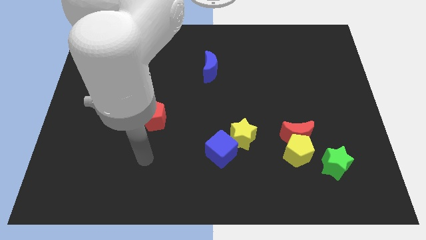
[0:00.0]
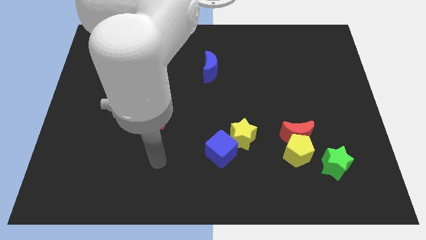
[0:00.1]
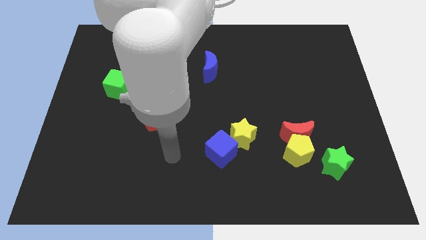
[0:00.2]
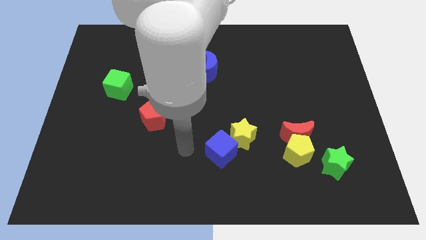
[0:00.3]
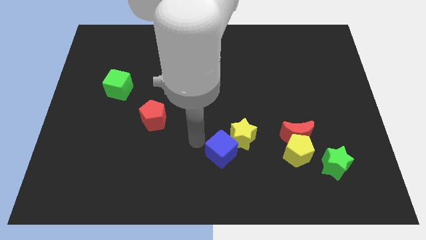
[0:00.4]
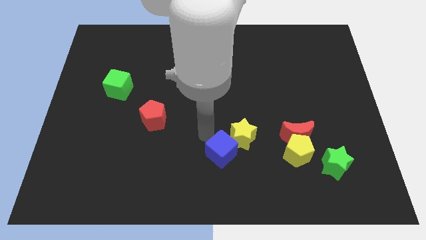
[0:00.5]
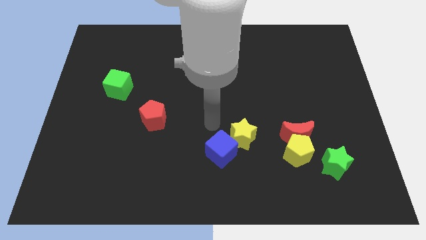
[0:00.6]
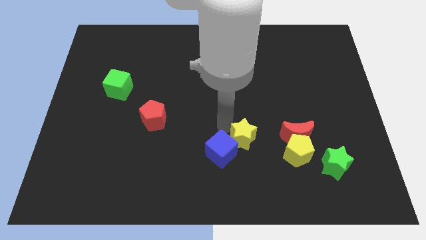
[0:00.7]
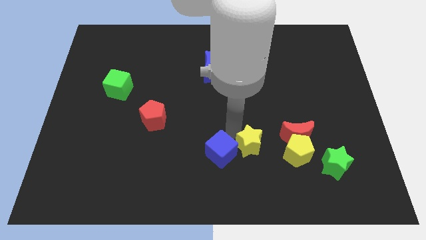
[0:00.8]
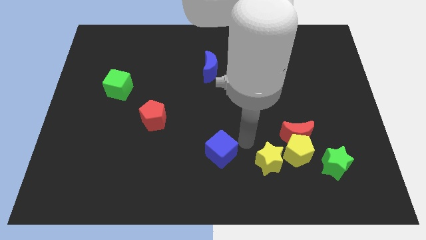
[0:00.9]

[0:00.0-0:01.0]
separate the blue cube from the yellow star

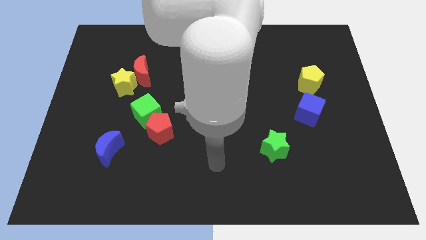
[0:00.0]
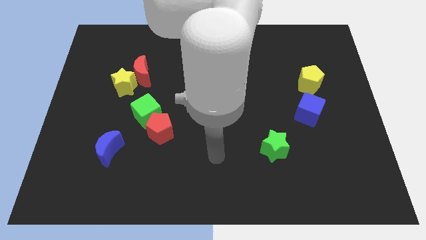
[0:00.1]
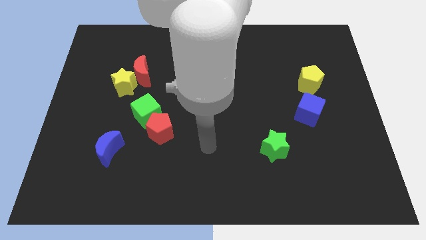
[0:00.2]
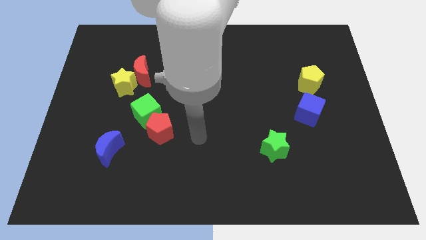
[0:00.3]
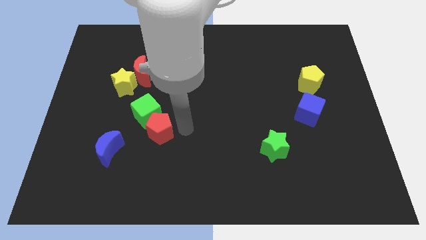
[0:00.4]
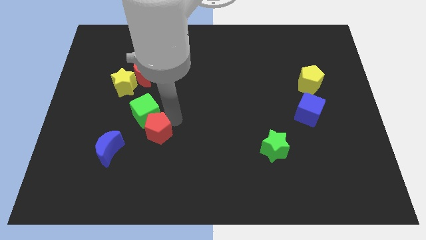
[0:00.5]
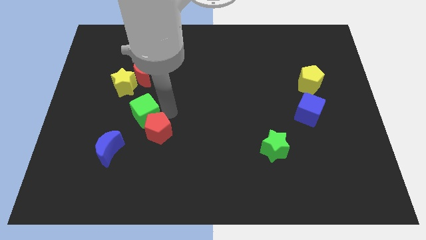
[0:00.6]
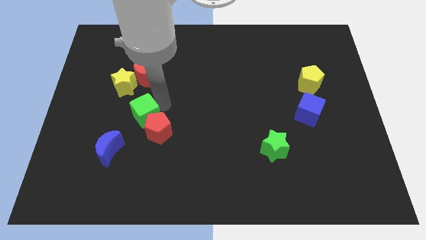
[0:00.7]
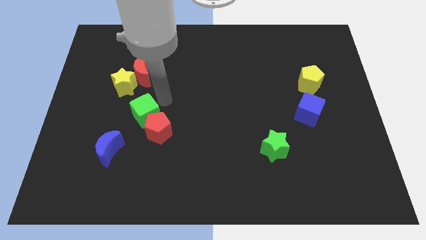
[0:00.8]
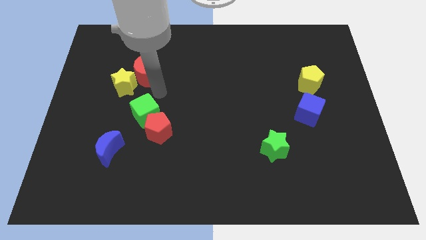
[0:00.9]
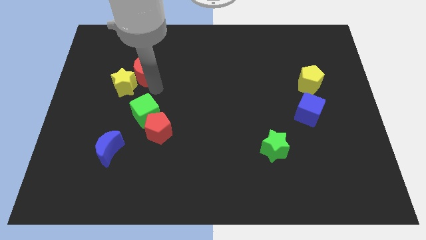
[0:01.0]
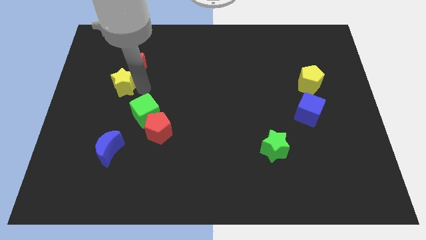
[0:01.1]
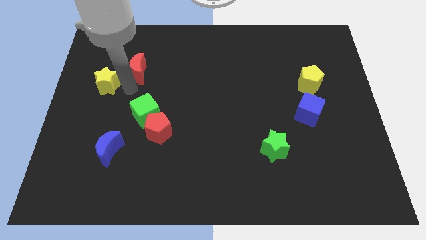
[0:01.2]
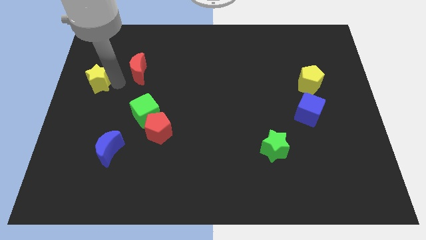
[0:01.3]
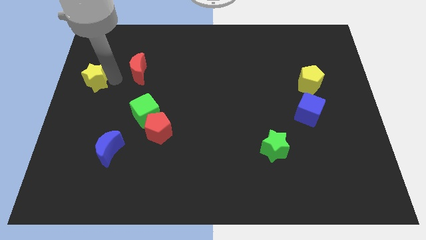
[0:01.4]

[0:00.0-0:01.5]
separate the red moon from the yellow star

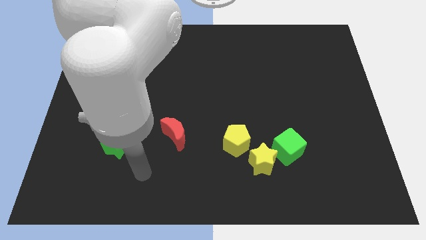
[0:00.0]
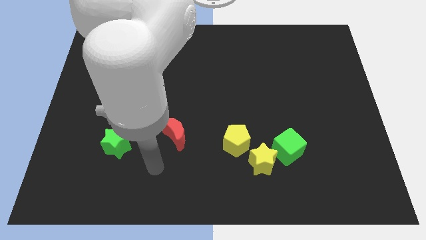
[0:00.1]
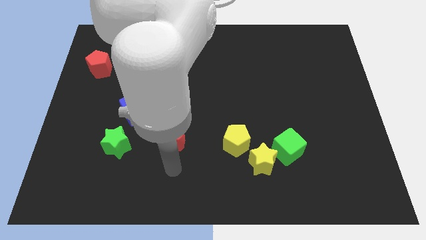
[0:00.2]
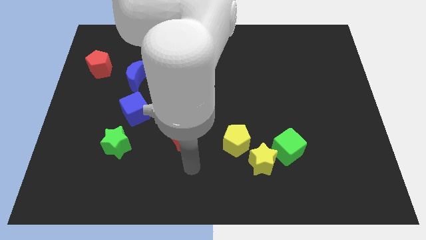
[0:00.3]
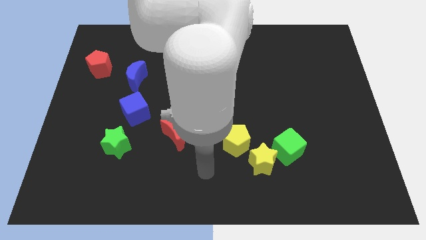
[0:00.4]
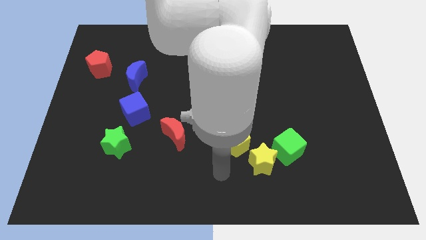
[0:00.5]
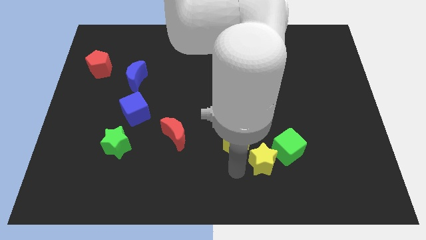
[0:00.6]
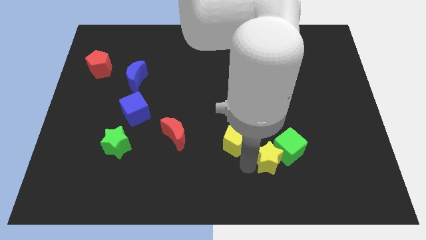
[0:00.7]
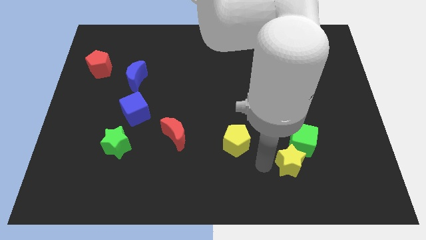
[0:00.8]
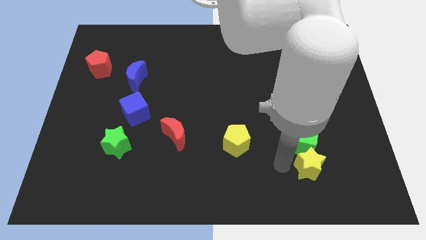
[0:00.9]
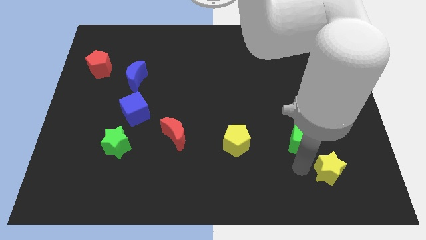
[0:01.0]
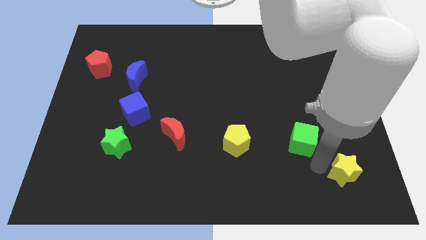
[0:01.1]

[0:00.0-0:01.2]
separate the green cube from the yellow star

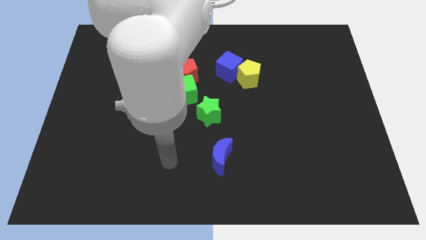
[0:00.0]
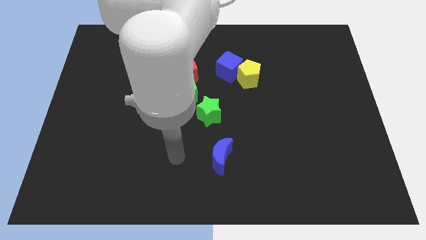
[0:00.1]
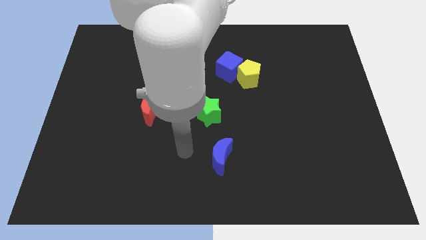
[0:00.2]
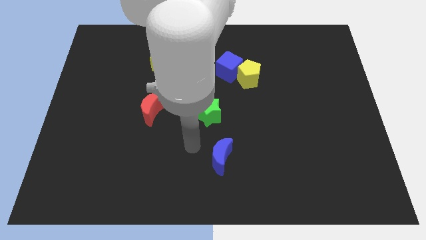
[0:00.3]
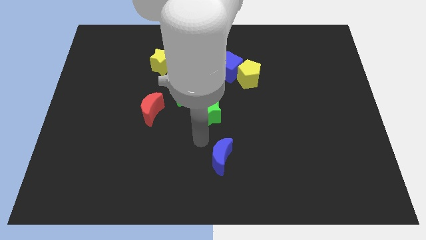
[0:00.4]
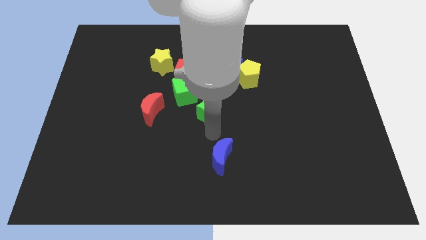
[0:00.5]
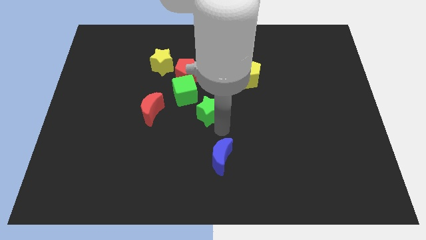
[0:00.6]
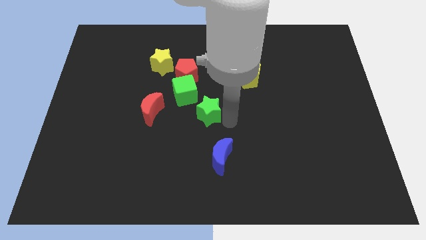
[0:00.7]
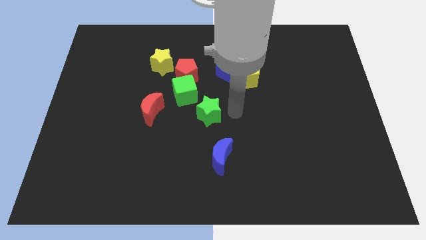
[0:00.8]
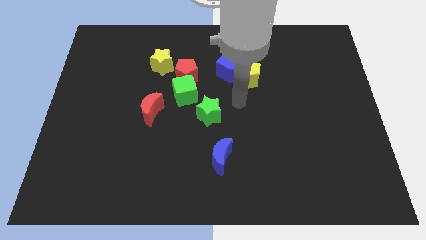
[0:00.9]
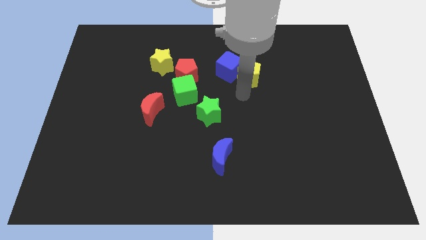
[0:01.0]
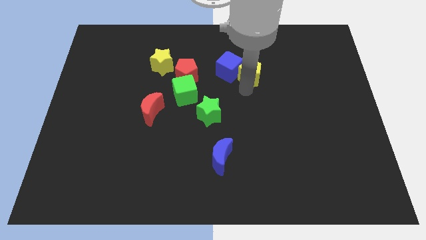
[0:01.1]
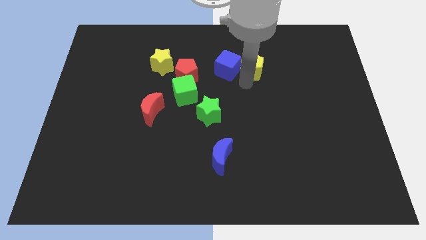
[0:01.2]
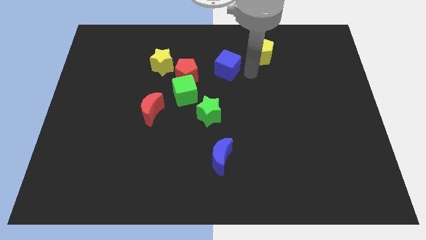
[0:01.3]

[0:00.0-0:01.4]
pull the blue cube apart from the yellow pentagon

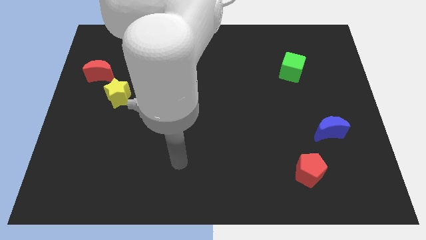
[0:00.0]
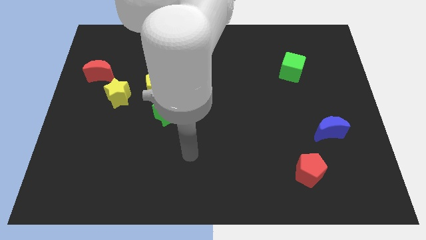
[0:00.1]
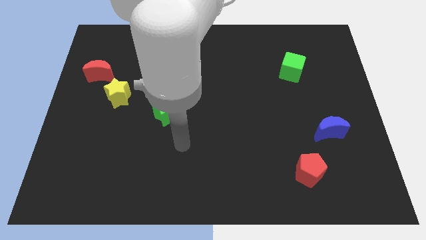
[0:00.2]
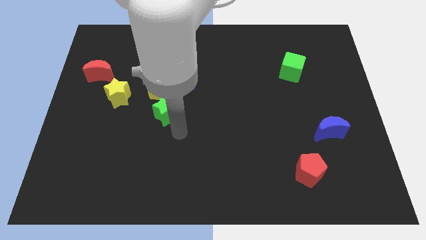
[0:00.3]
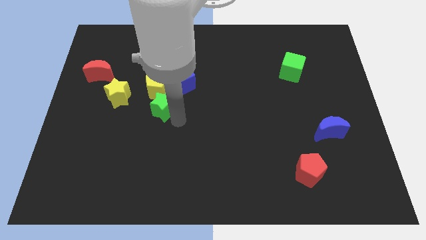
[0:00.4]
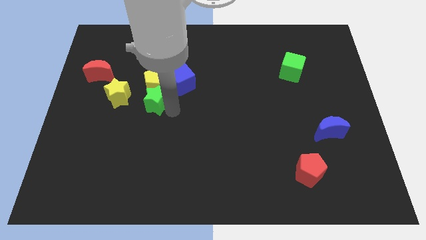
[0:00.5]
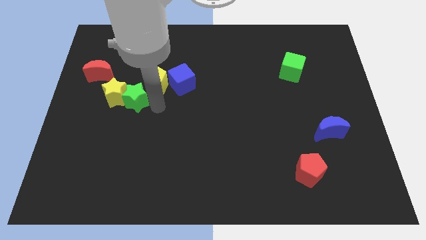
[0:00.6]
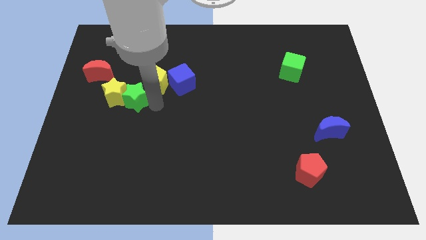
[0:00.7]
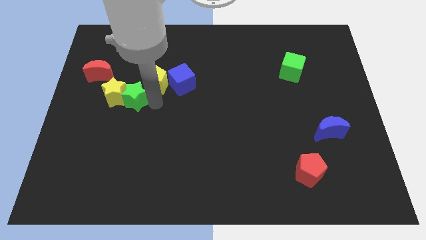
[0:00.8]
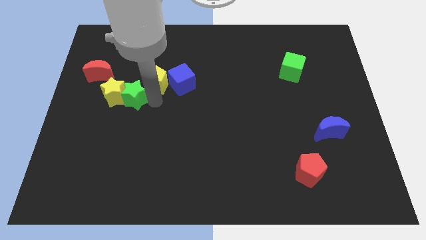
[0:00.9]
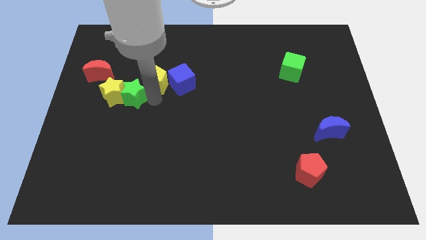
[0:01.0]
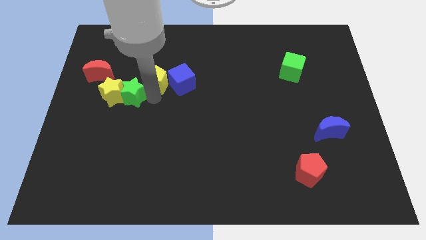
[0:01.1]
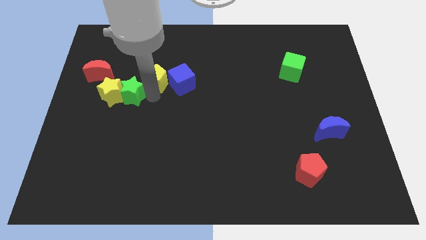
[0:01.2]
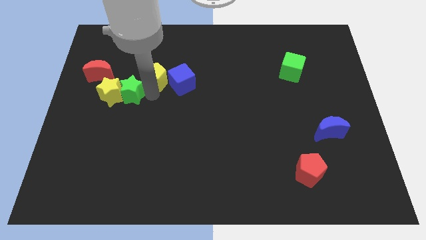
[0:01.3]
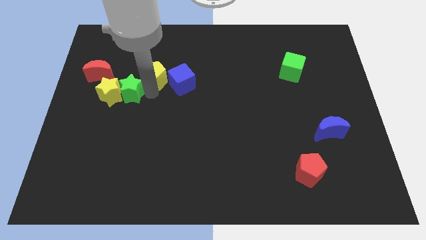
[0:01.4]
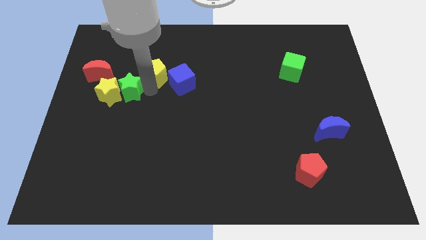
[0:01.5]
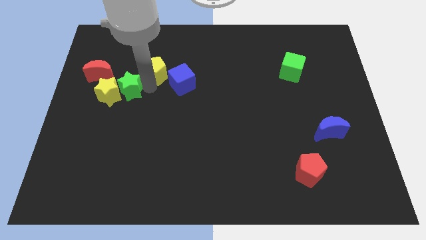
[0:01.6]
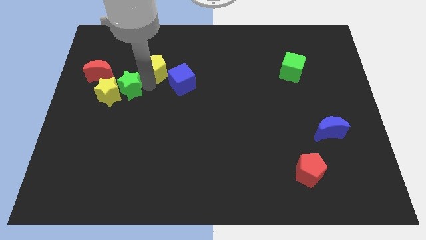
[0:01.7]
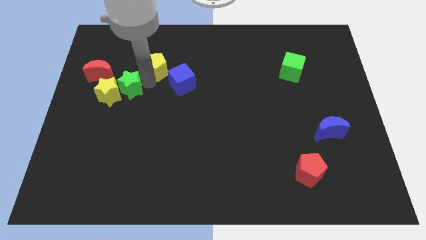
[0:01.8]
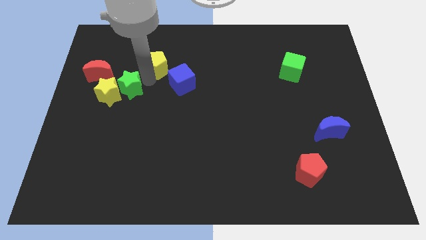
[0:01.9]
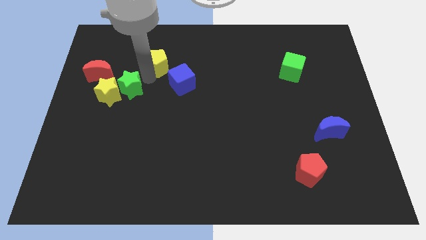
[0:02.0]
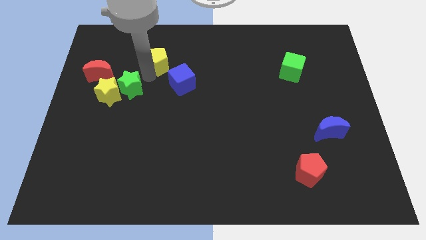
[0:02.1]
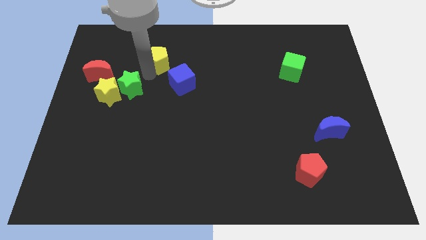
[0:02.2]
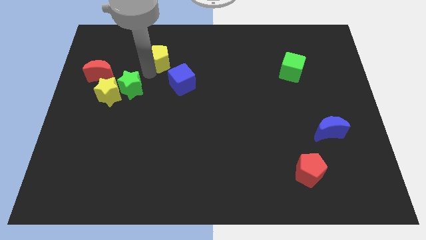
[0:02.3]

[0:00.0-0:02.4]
move the yellow pentagon away from the group of blocks

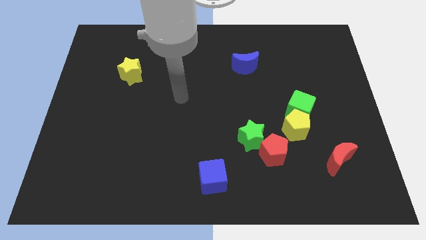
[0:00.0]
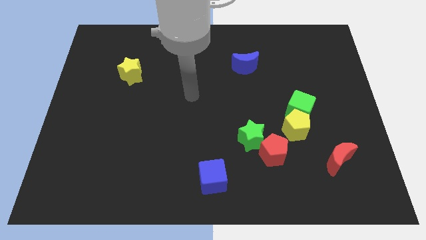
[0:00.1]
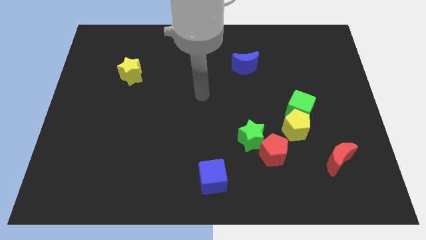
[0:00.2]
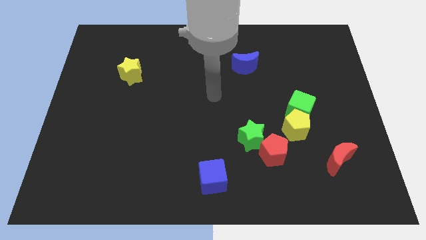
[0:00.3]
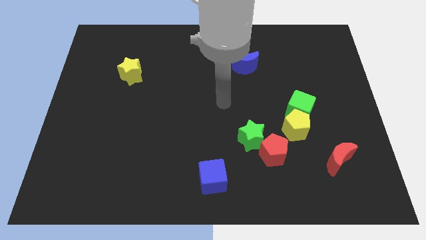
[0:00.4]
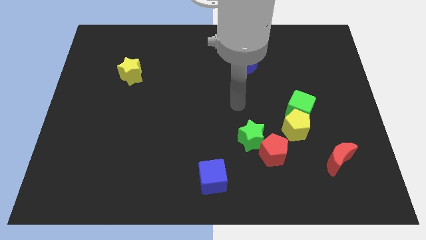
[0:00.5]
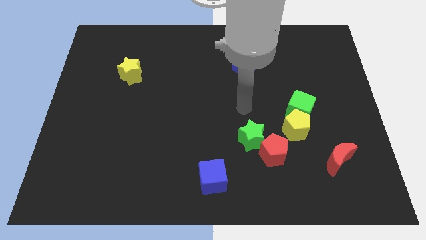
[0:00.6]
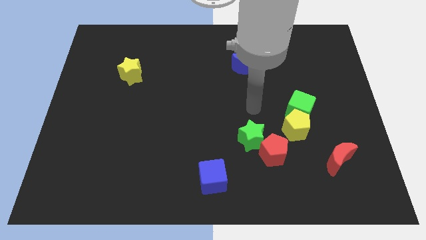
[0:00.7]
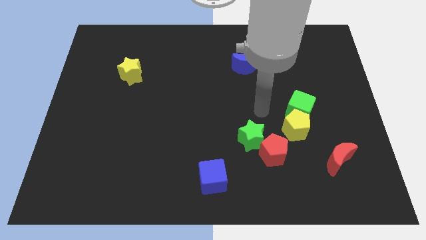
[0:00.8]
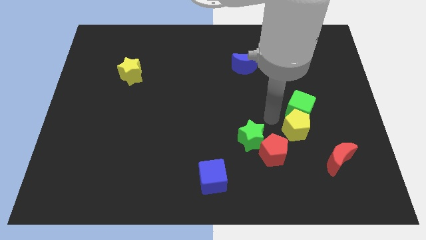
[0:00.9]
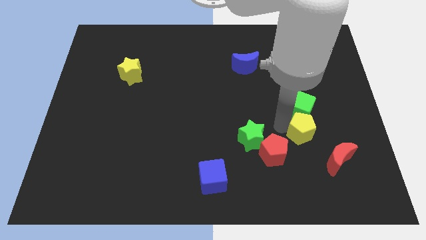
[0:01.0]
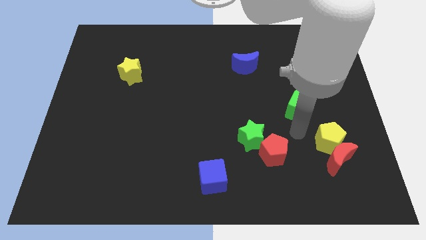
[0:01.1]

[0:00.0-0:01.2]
move the green cube away from the yellow pentagon

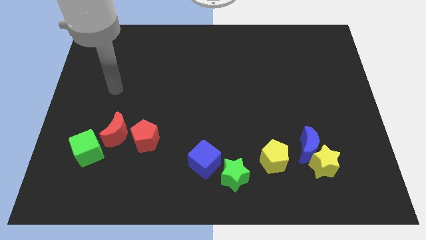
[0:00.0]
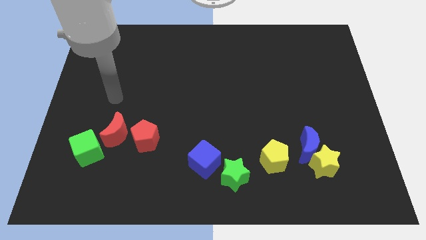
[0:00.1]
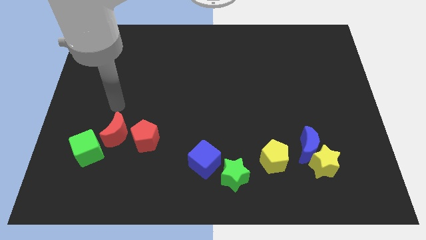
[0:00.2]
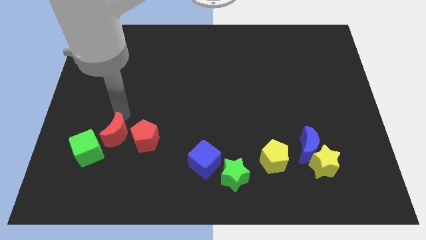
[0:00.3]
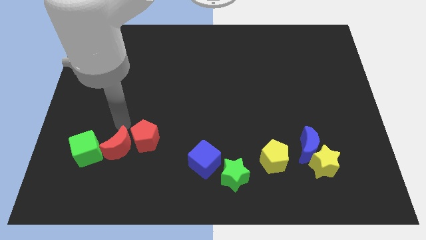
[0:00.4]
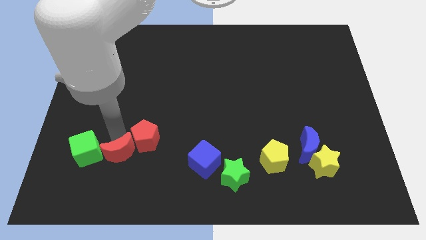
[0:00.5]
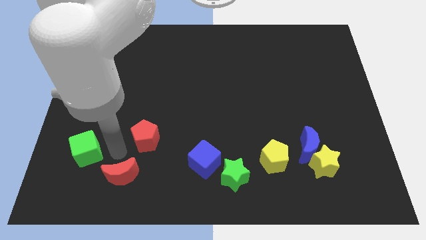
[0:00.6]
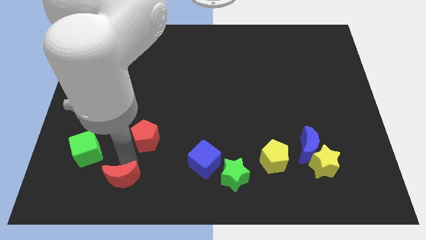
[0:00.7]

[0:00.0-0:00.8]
move the red pentagon away from the red moon

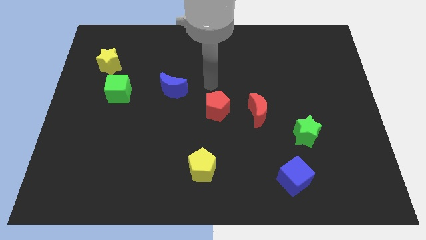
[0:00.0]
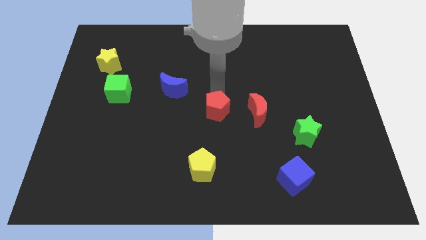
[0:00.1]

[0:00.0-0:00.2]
move the red moon away from the red pentagon
